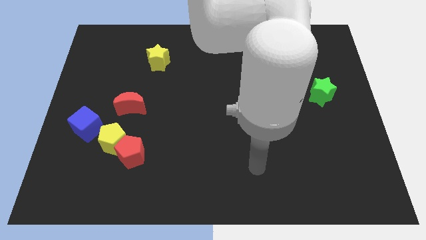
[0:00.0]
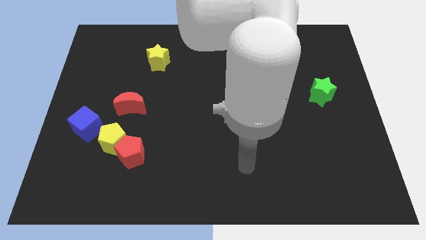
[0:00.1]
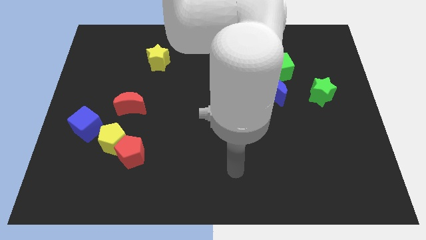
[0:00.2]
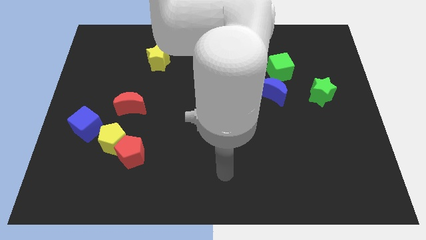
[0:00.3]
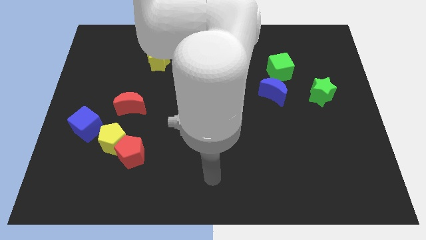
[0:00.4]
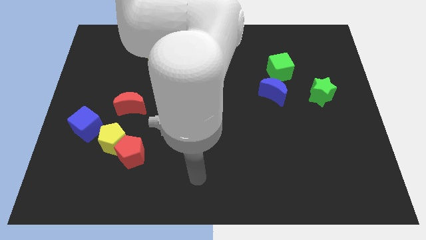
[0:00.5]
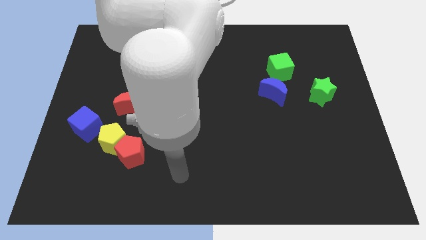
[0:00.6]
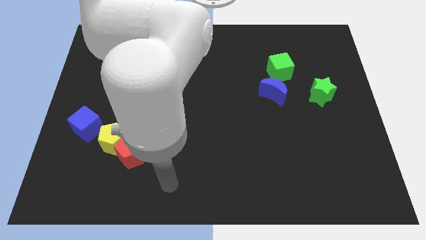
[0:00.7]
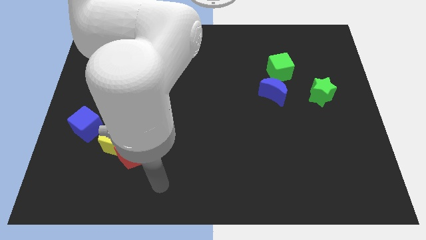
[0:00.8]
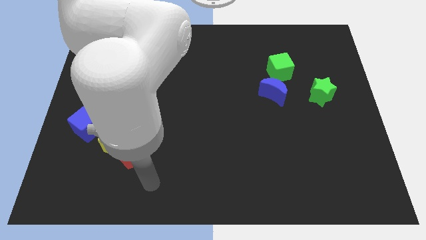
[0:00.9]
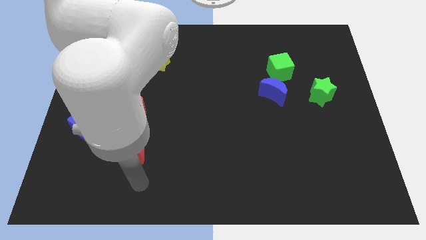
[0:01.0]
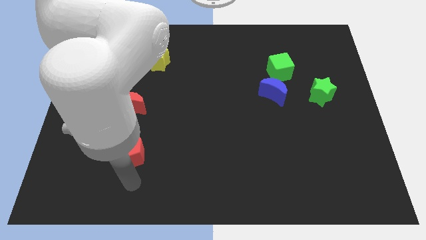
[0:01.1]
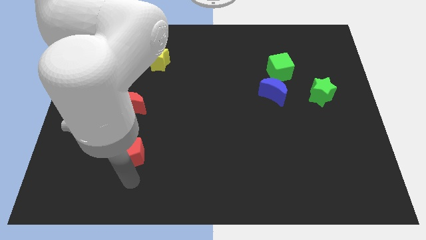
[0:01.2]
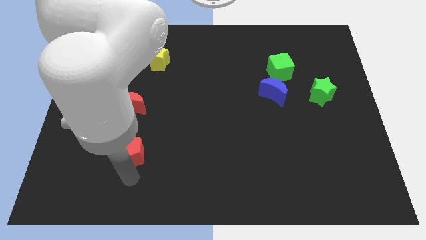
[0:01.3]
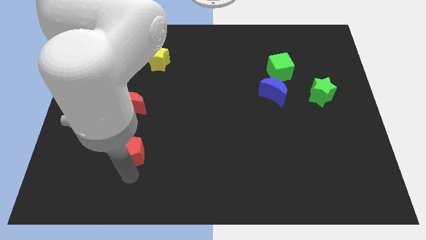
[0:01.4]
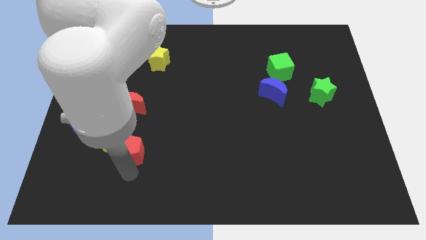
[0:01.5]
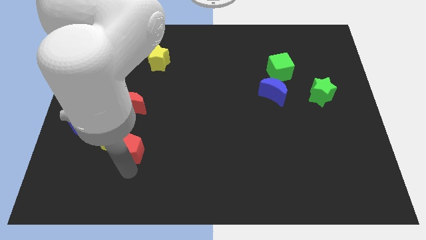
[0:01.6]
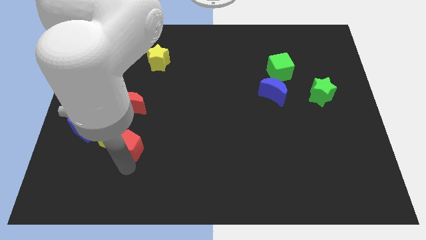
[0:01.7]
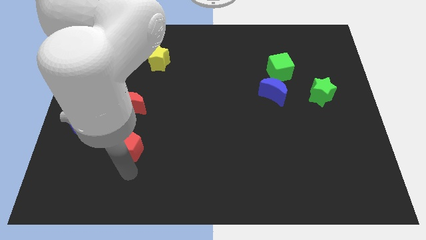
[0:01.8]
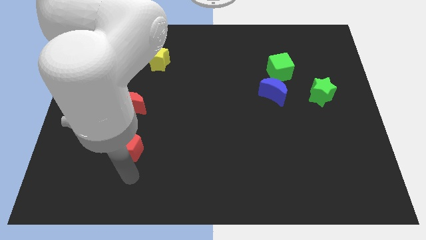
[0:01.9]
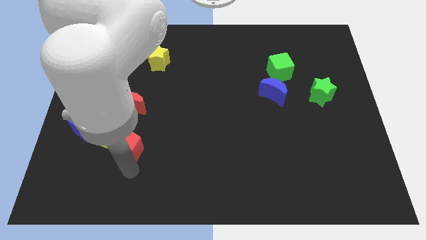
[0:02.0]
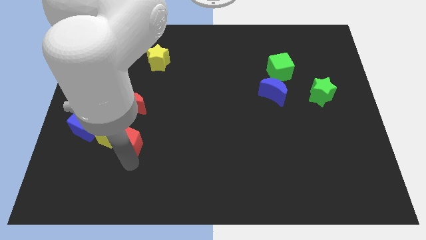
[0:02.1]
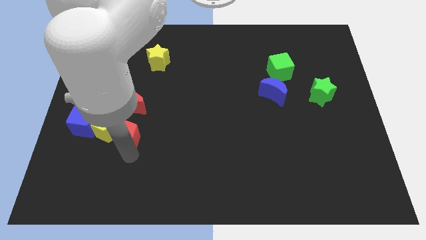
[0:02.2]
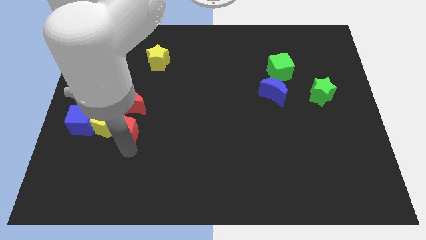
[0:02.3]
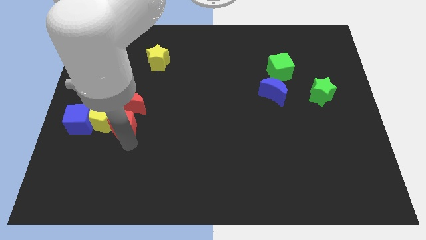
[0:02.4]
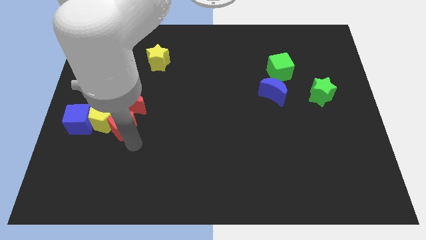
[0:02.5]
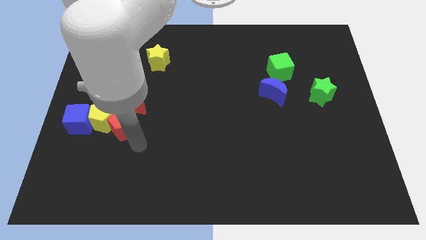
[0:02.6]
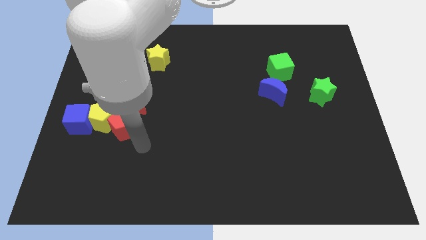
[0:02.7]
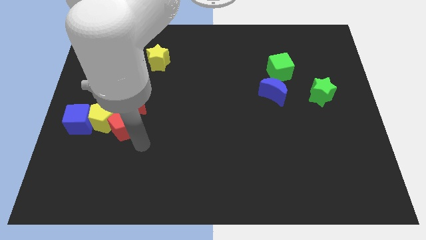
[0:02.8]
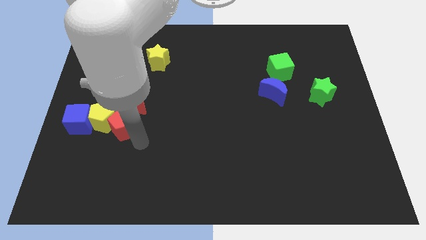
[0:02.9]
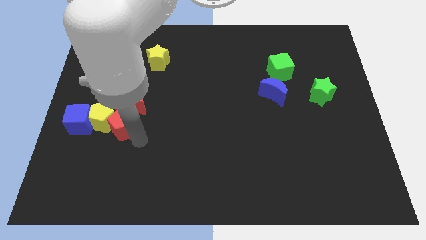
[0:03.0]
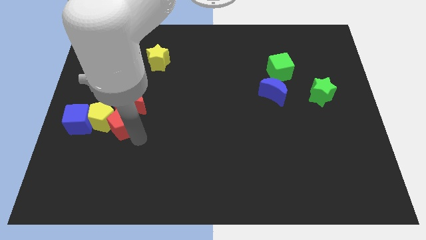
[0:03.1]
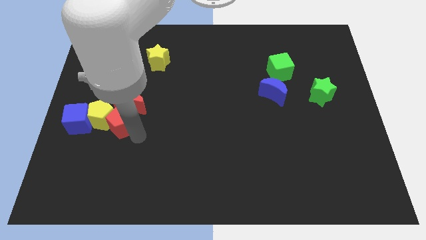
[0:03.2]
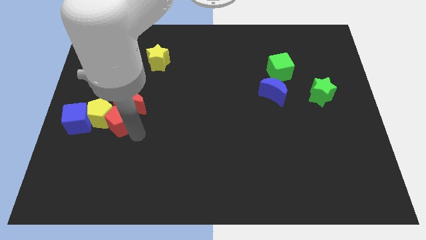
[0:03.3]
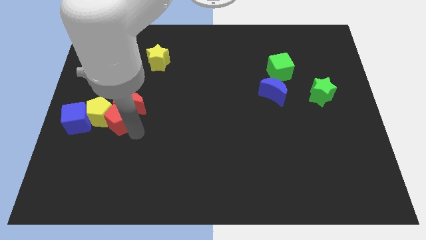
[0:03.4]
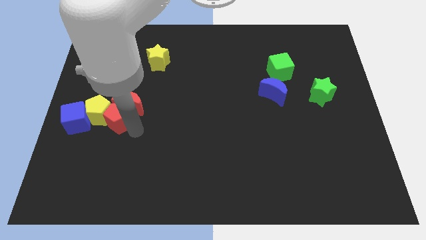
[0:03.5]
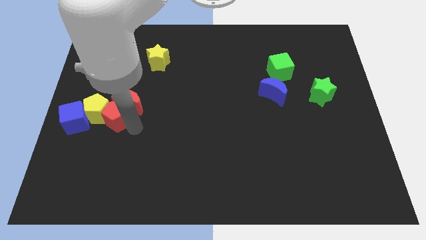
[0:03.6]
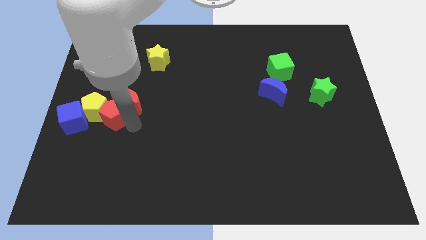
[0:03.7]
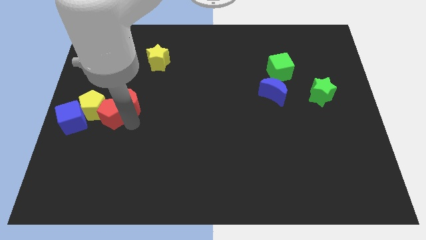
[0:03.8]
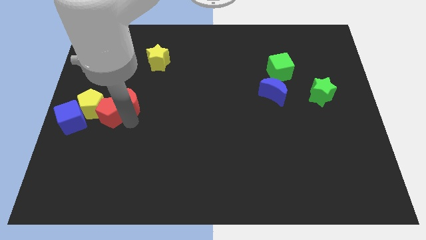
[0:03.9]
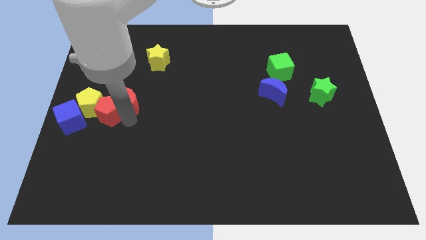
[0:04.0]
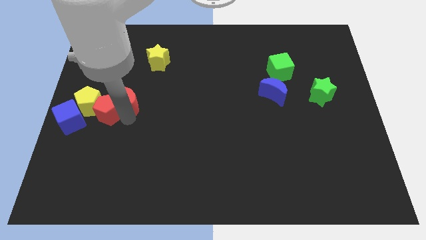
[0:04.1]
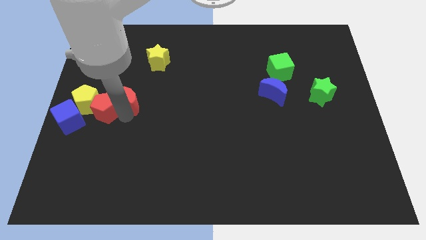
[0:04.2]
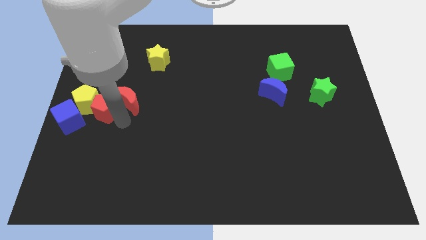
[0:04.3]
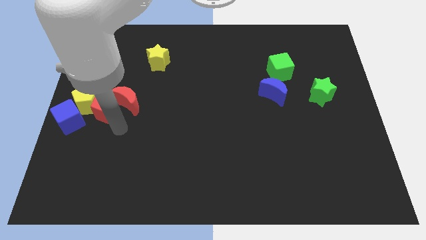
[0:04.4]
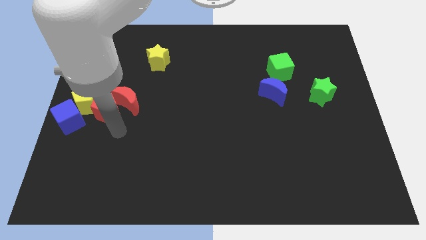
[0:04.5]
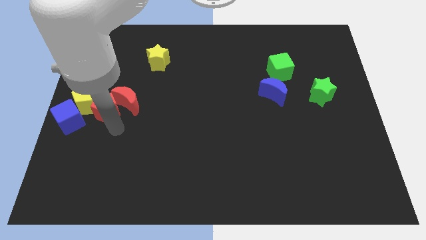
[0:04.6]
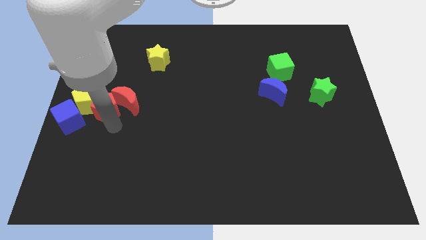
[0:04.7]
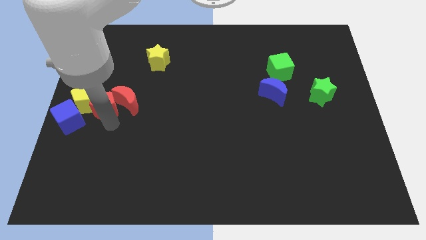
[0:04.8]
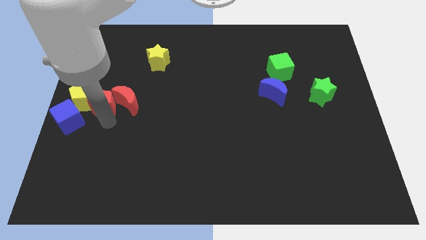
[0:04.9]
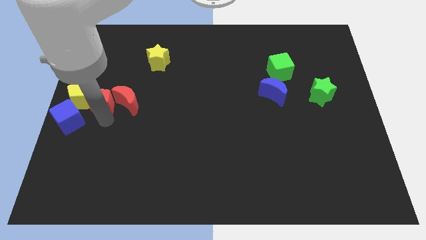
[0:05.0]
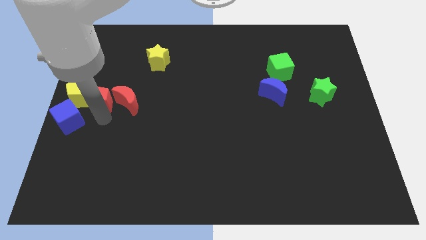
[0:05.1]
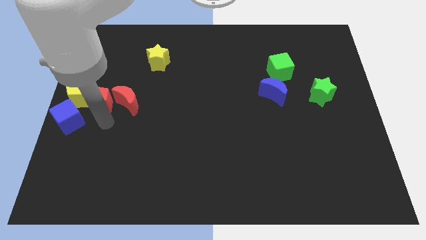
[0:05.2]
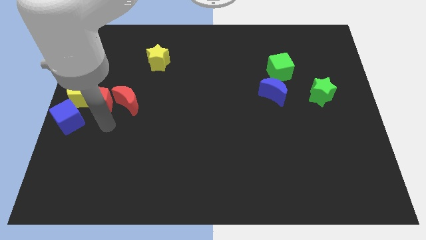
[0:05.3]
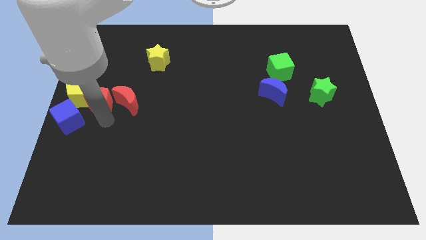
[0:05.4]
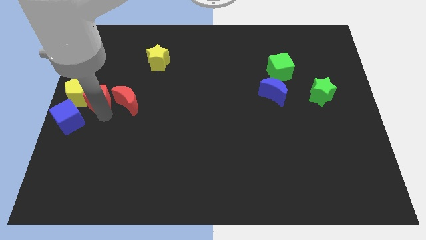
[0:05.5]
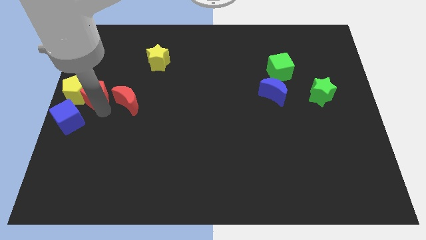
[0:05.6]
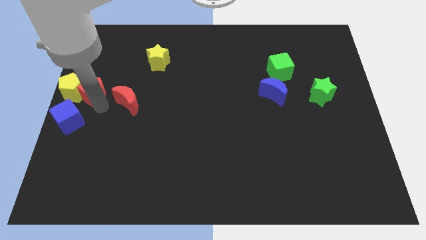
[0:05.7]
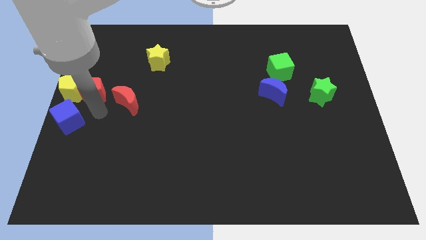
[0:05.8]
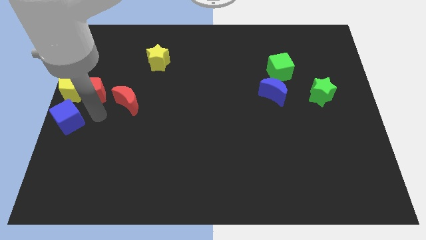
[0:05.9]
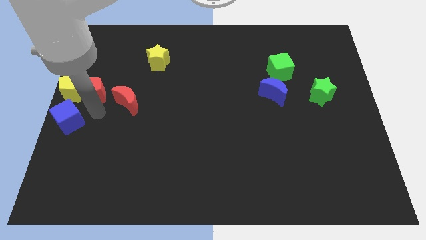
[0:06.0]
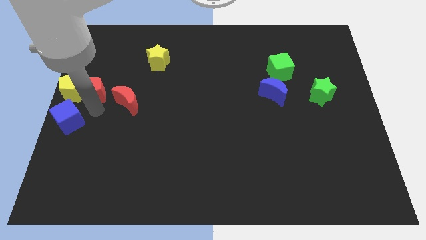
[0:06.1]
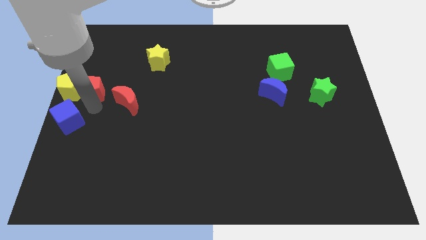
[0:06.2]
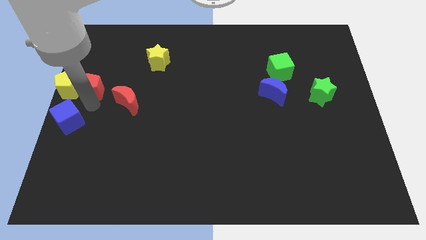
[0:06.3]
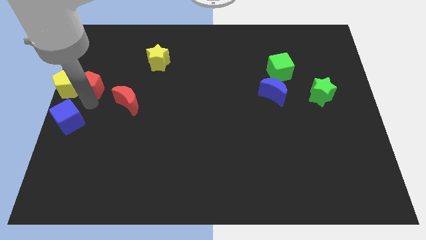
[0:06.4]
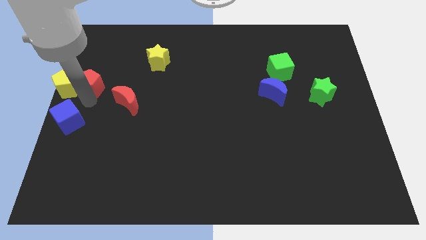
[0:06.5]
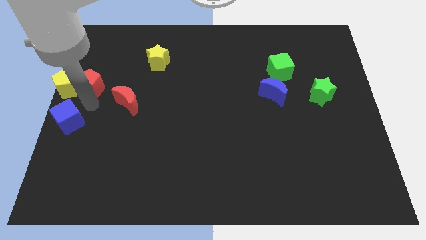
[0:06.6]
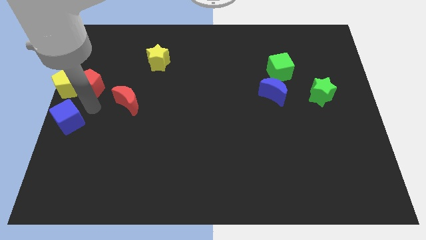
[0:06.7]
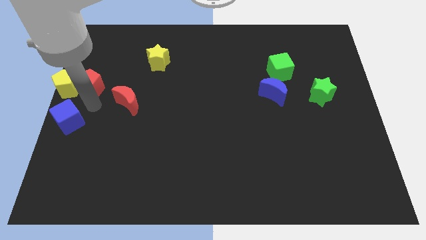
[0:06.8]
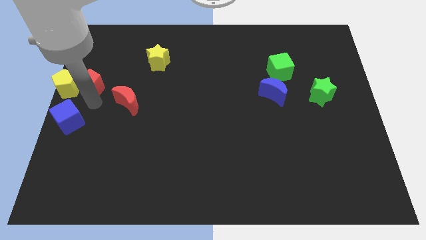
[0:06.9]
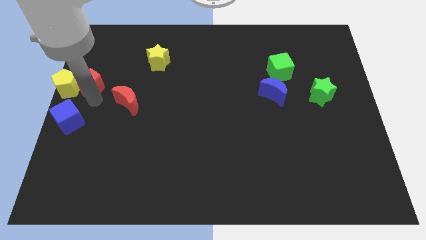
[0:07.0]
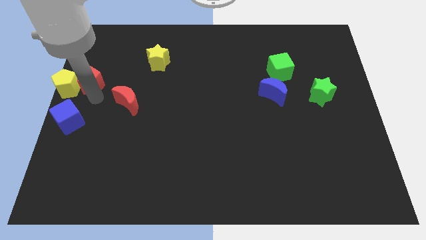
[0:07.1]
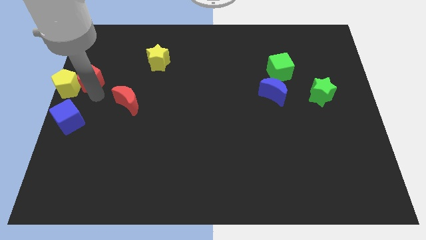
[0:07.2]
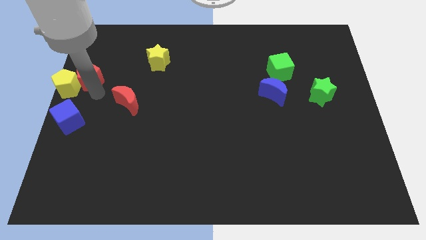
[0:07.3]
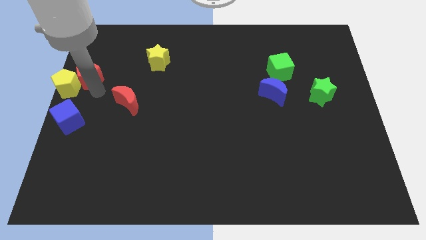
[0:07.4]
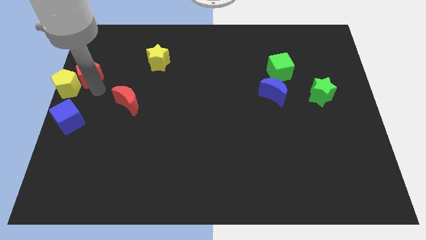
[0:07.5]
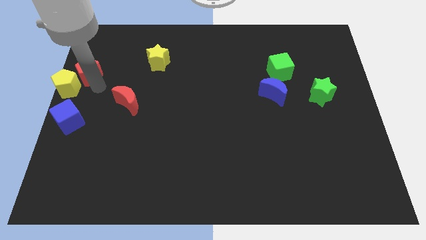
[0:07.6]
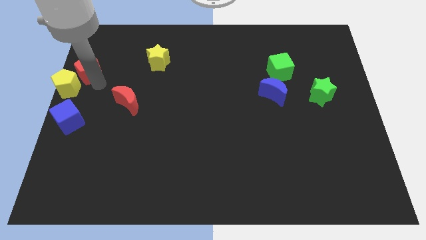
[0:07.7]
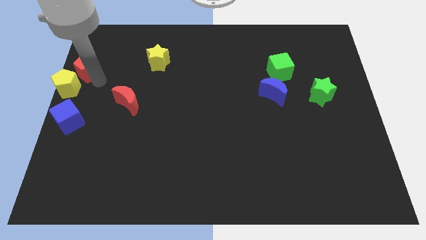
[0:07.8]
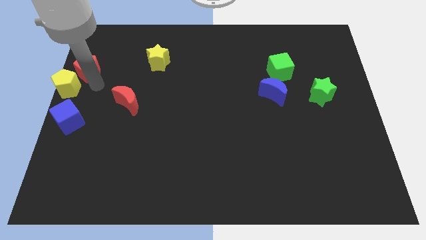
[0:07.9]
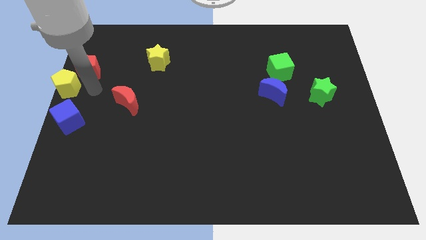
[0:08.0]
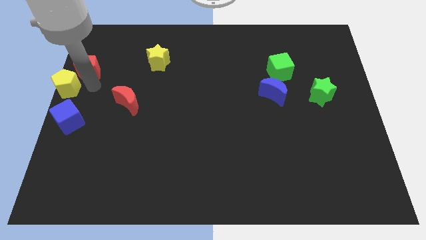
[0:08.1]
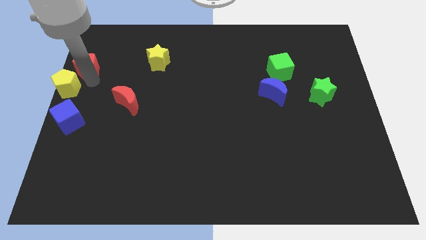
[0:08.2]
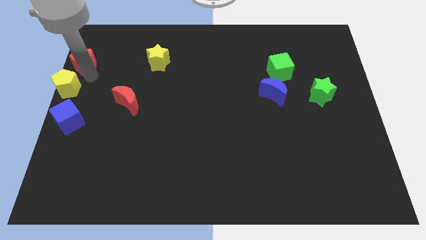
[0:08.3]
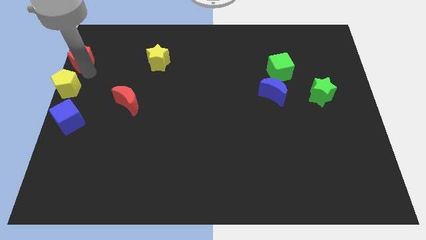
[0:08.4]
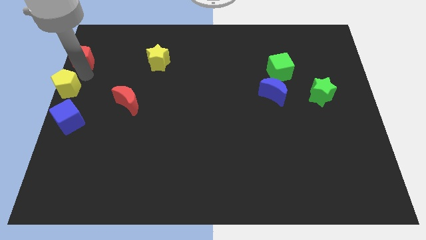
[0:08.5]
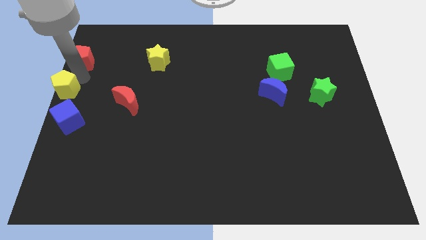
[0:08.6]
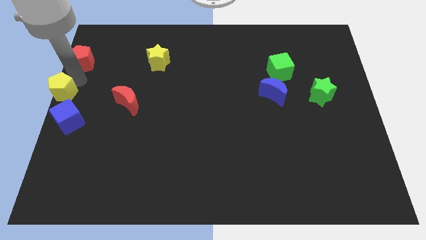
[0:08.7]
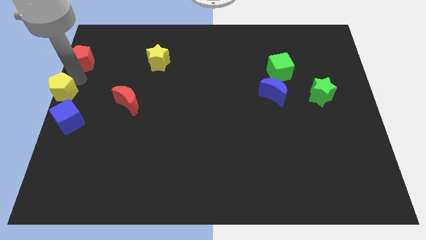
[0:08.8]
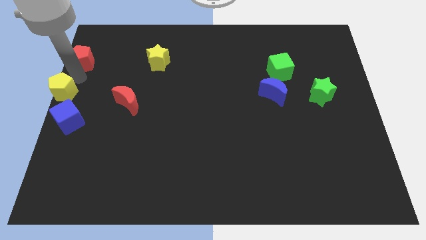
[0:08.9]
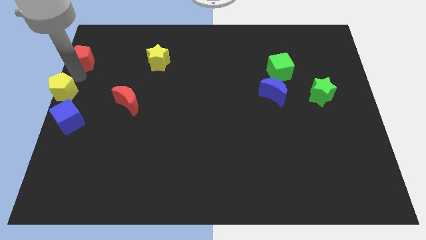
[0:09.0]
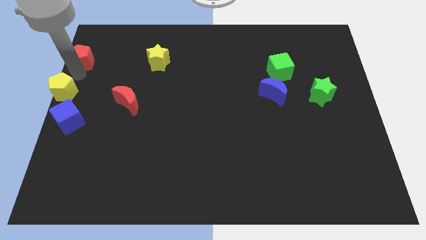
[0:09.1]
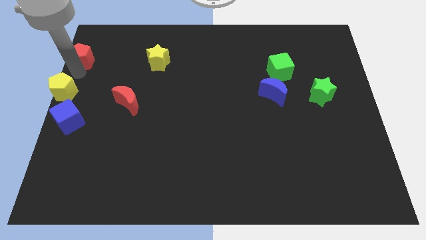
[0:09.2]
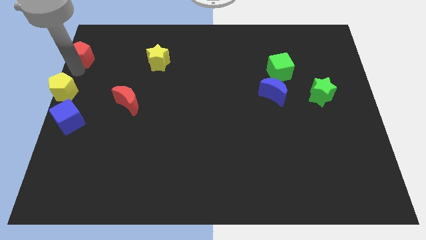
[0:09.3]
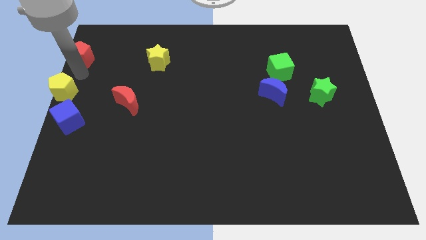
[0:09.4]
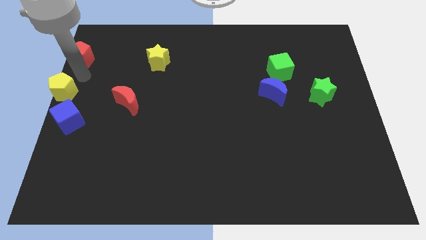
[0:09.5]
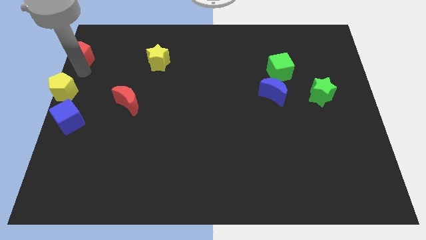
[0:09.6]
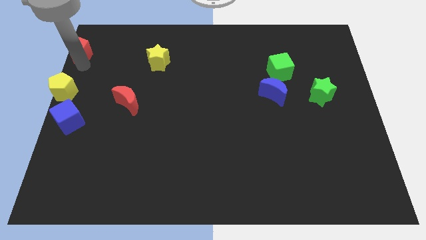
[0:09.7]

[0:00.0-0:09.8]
push the red pentagon to the upper left corner
